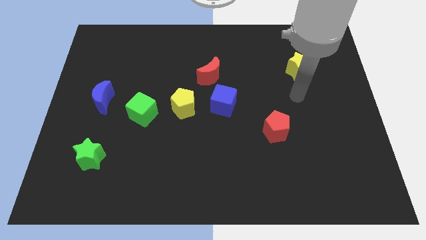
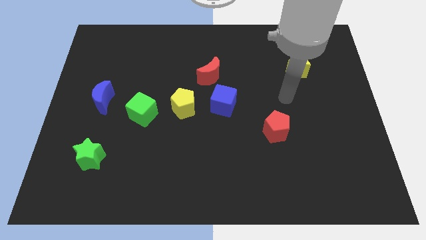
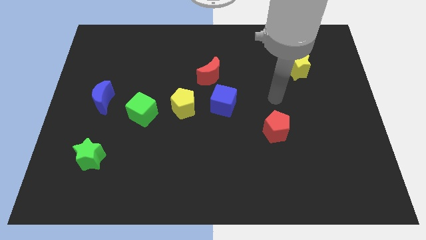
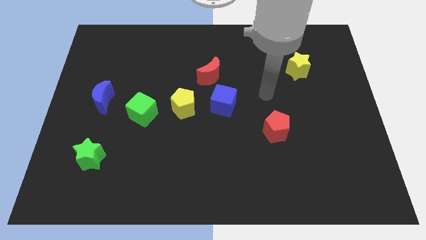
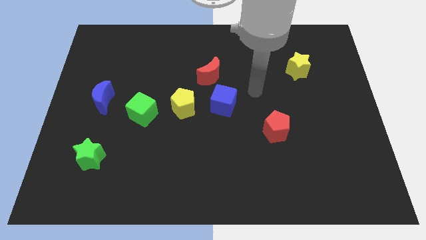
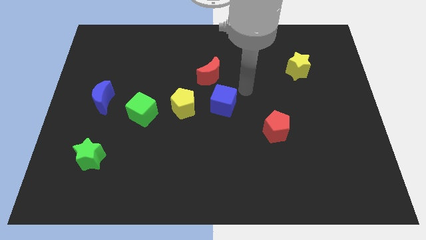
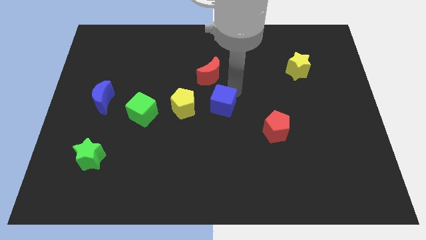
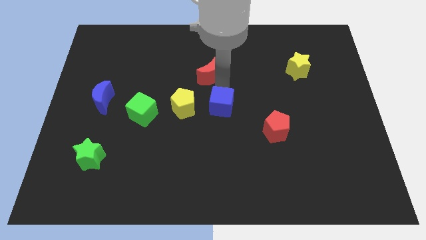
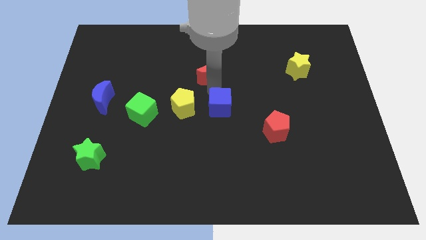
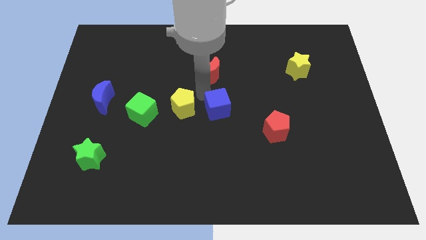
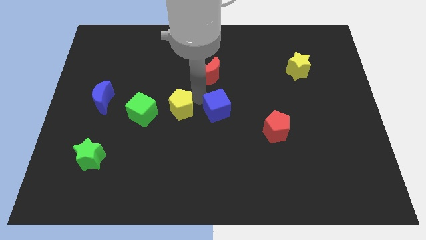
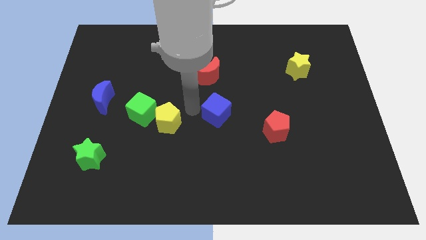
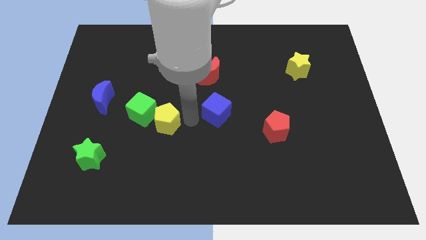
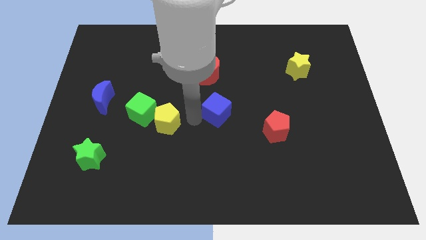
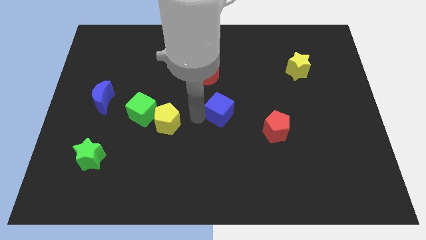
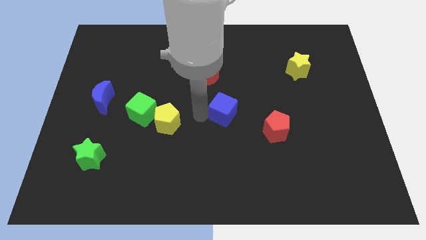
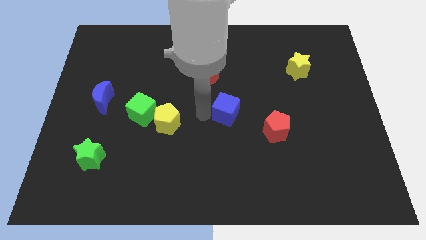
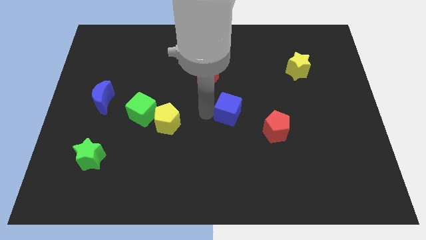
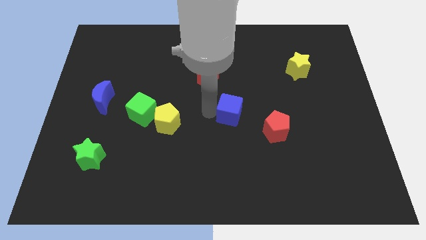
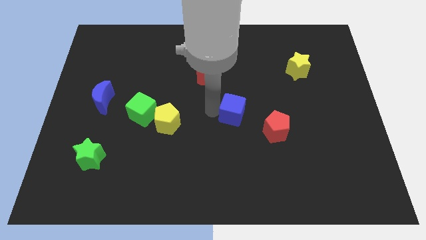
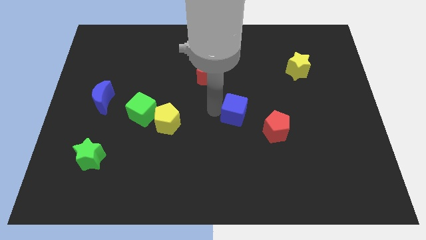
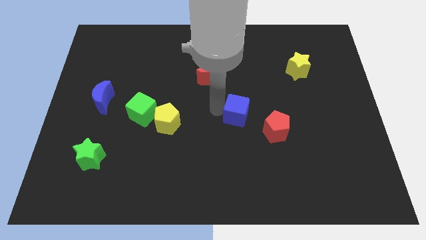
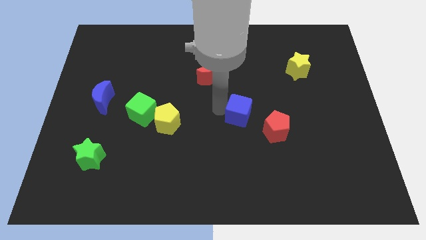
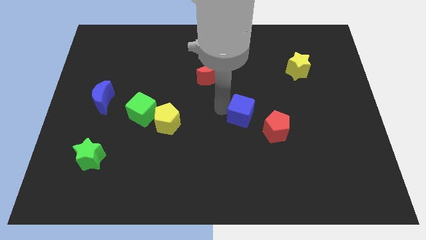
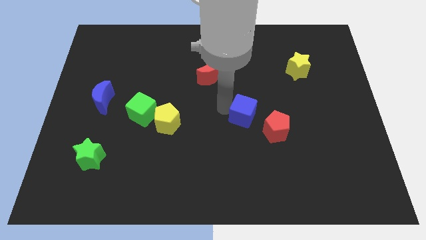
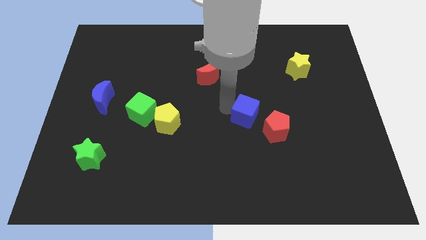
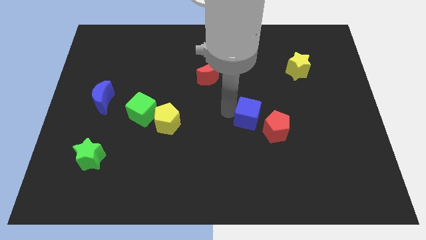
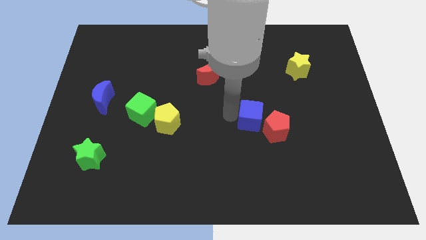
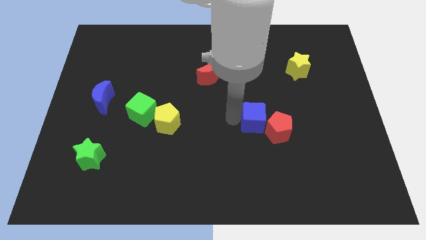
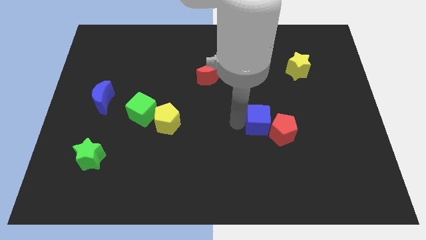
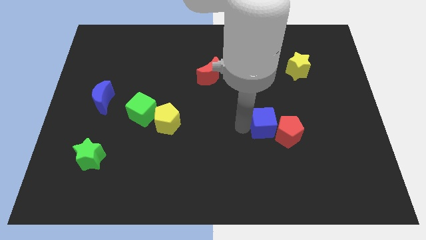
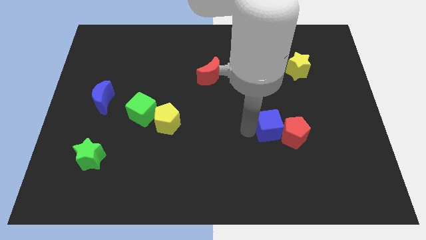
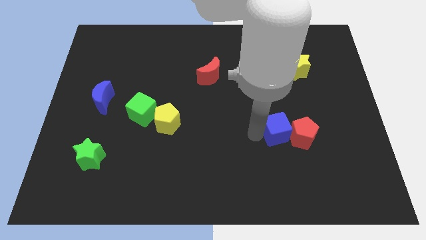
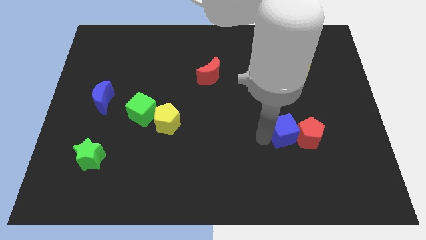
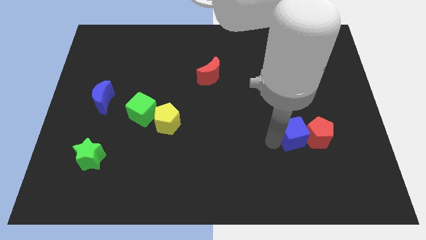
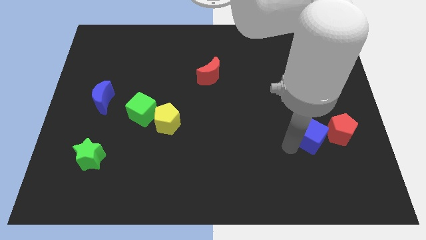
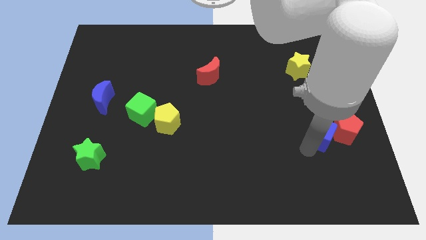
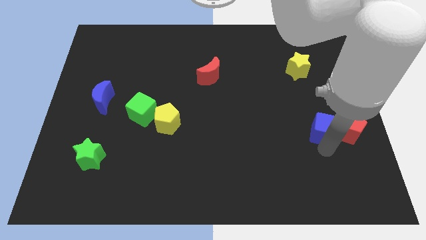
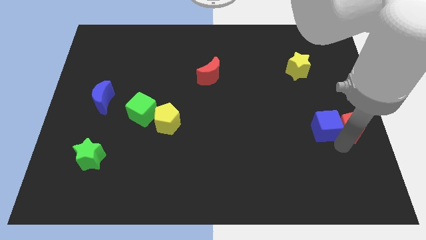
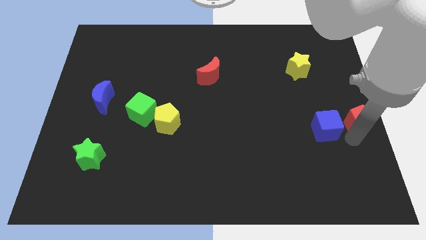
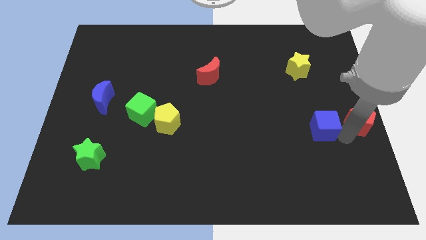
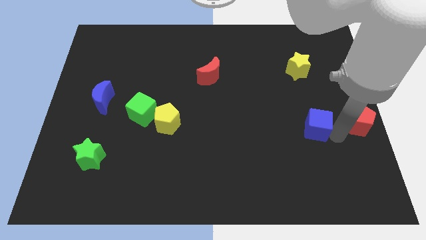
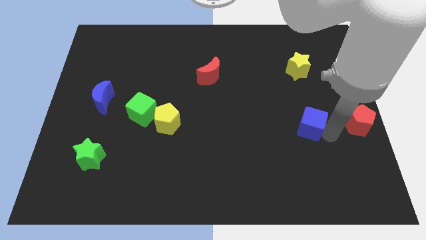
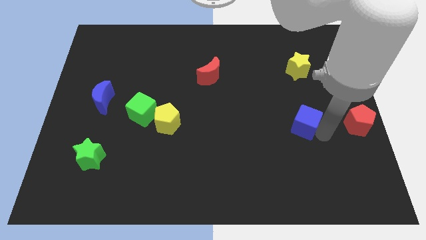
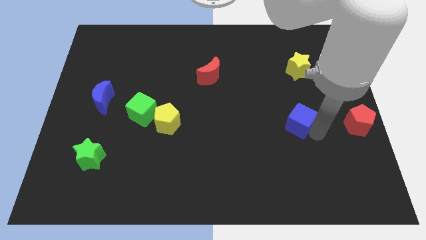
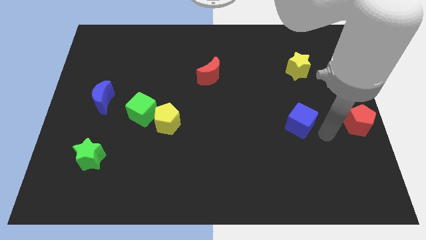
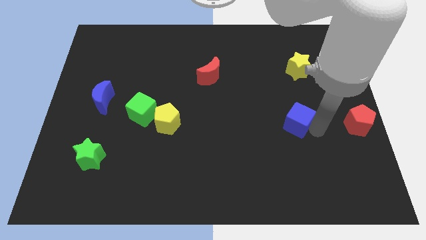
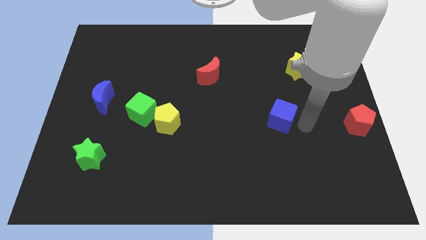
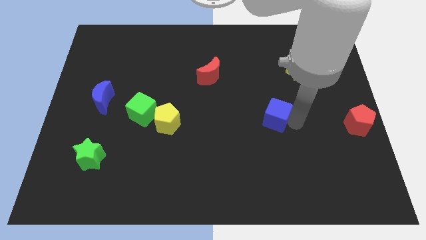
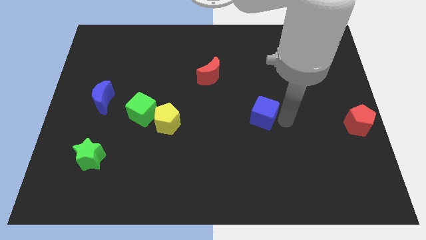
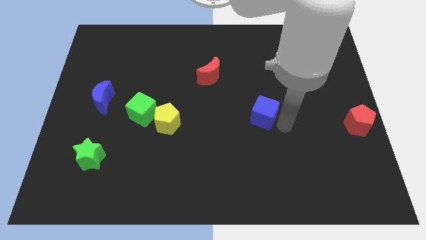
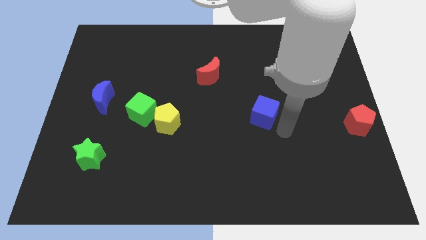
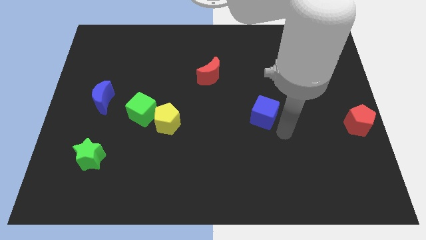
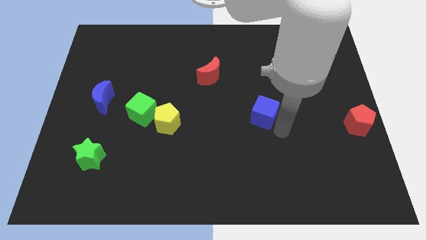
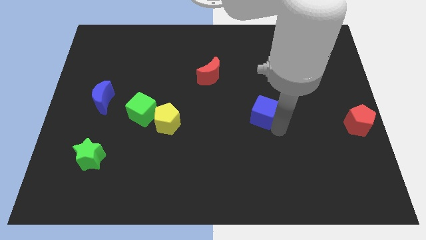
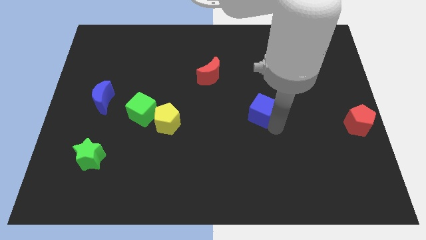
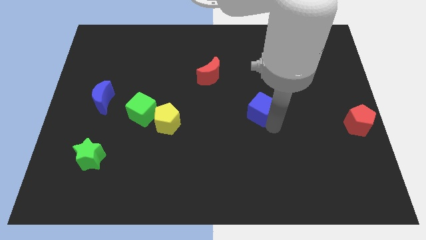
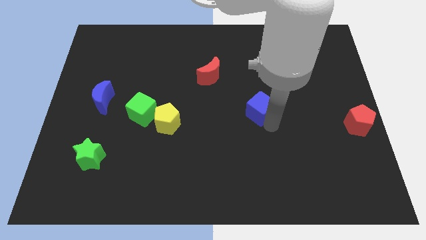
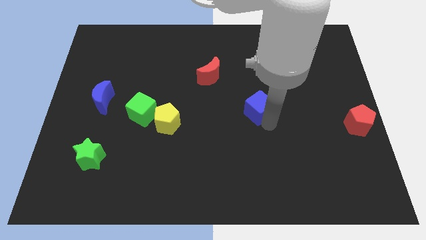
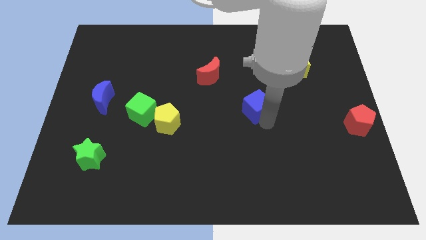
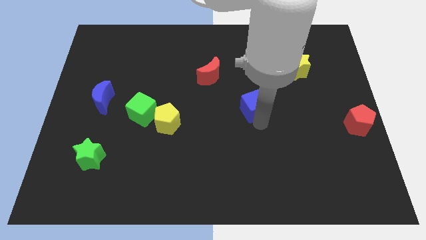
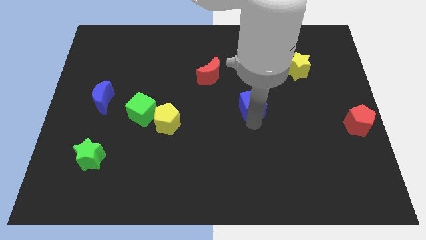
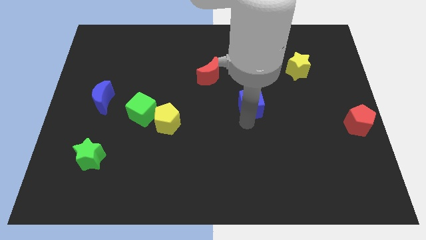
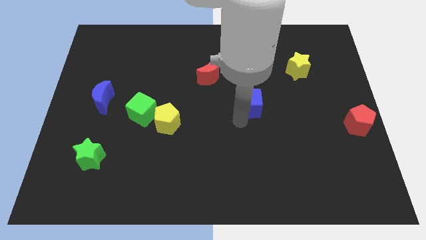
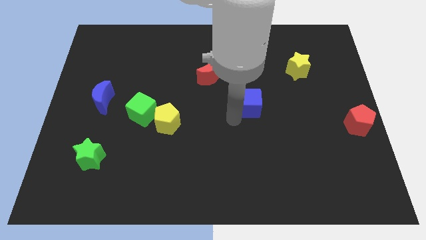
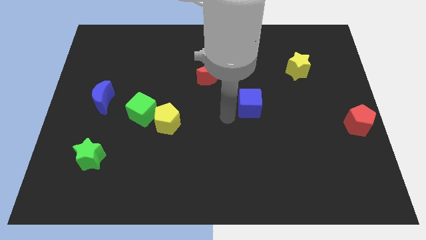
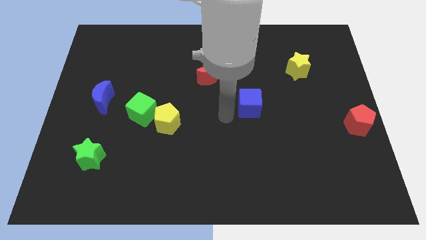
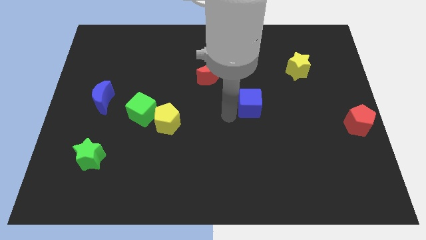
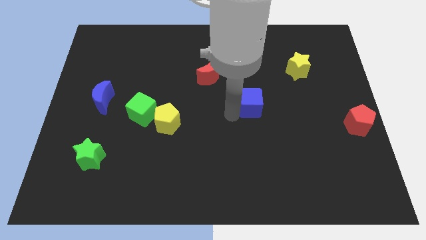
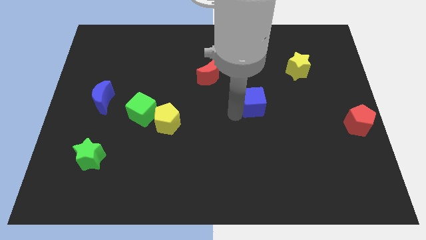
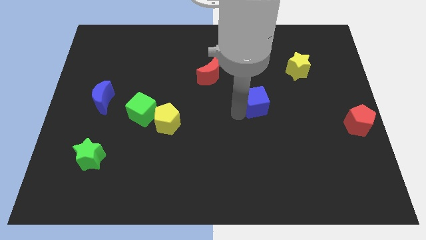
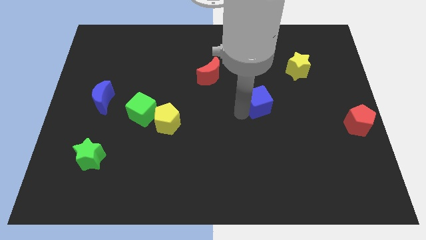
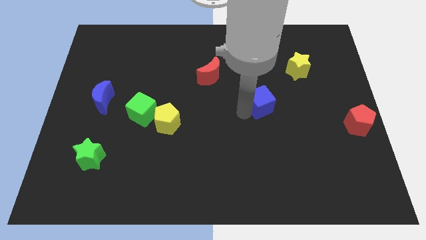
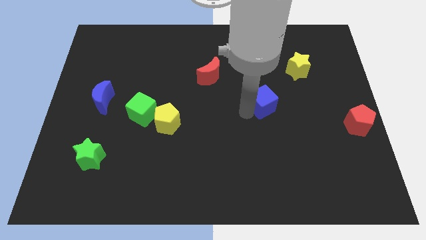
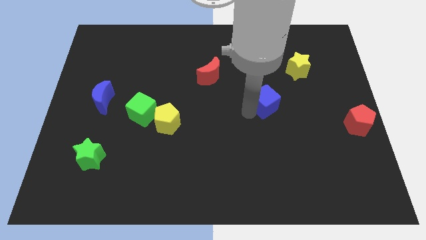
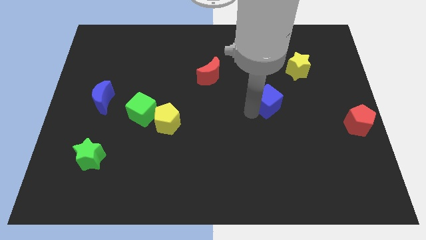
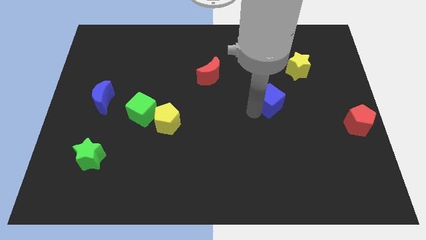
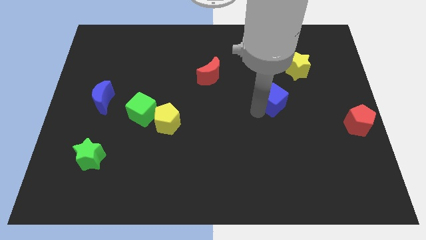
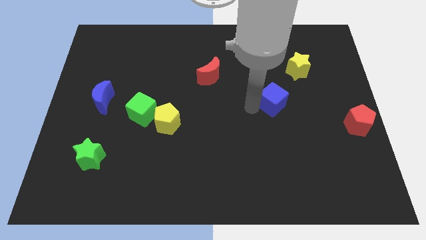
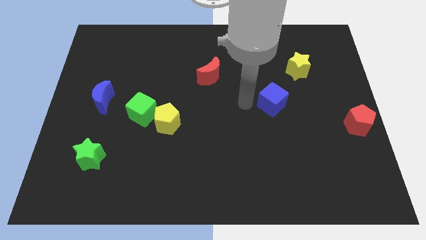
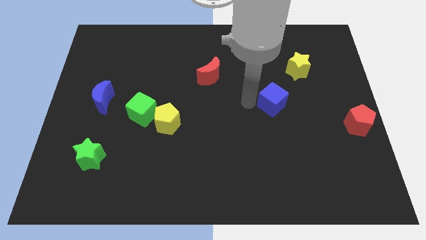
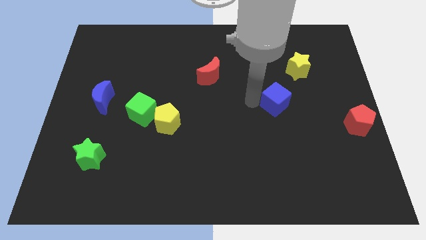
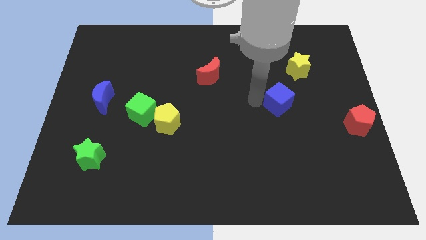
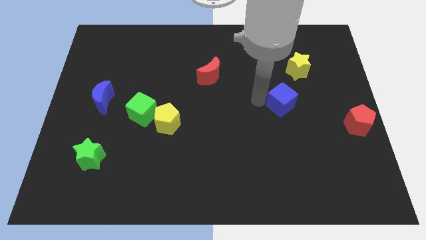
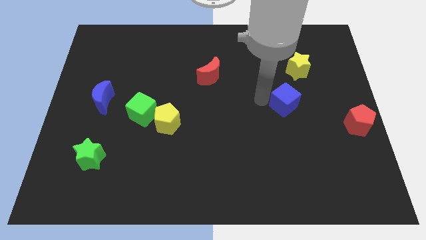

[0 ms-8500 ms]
put the blue cube below the yellow star
